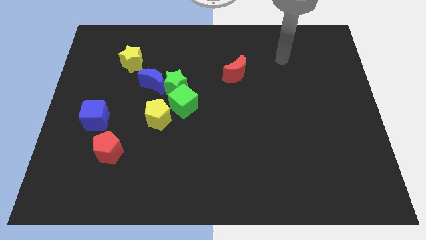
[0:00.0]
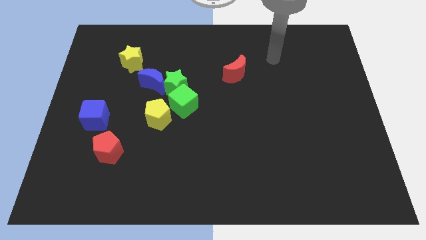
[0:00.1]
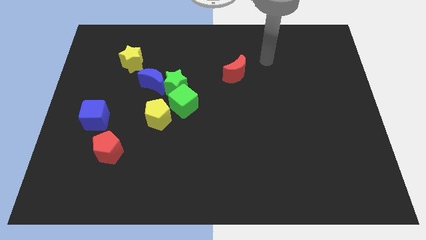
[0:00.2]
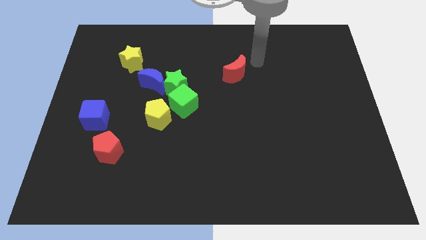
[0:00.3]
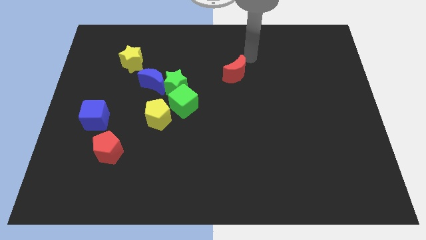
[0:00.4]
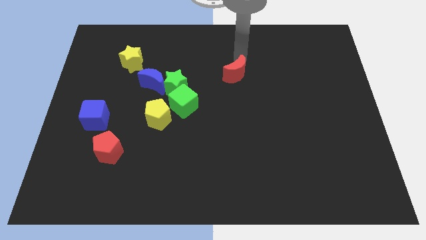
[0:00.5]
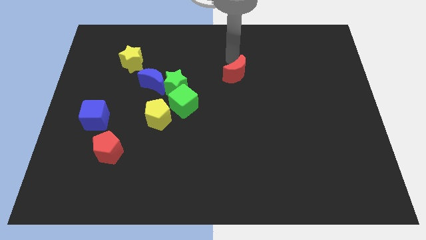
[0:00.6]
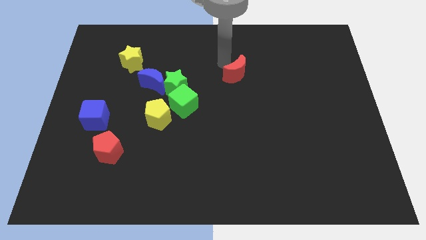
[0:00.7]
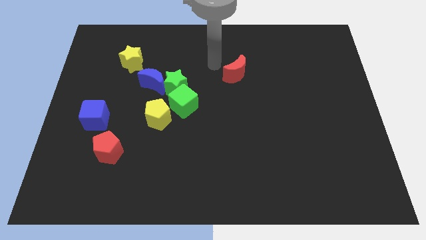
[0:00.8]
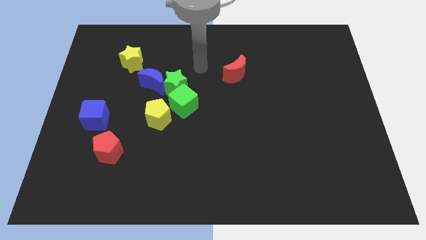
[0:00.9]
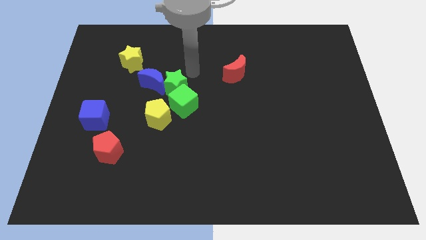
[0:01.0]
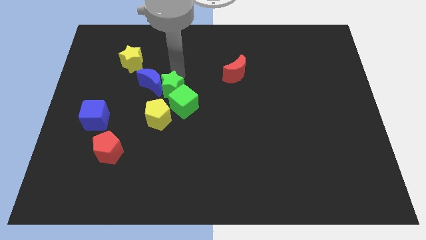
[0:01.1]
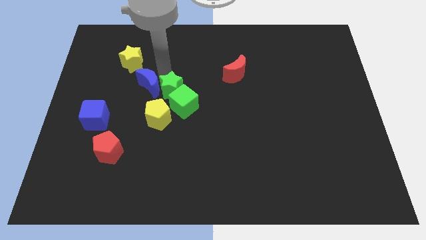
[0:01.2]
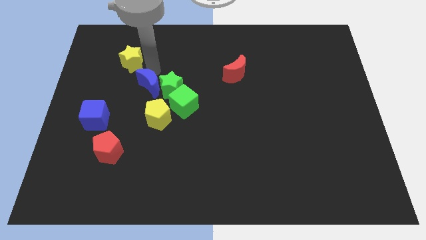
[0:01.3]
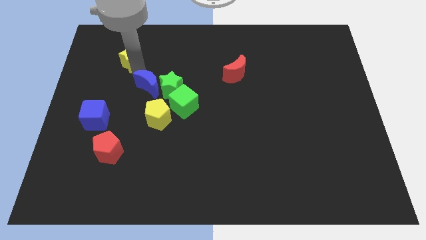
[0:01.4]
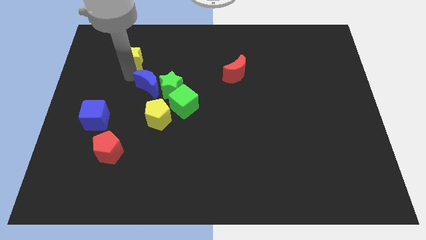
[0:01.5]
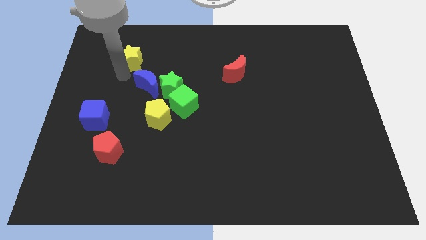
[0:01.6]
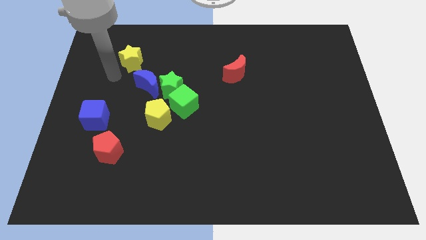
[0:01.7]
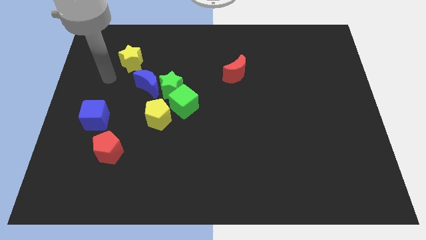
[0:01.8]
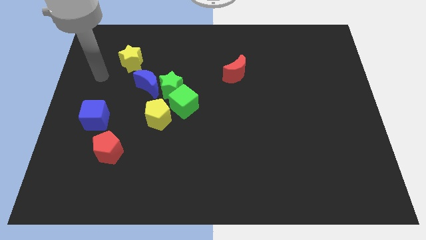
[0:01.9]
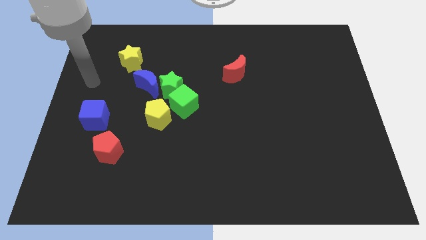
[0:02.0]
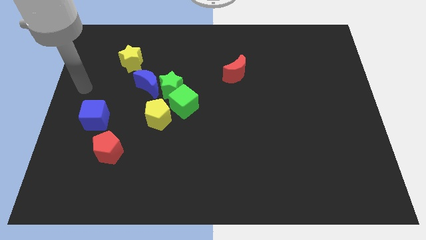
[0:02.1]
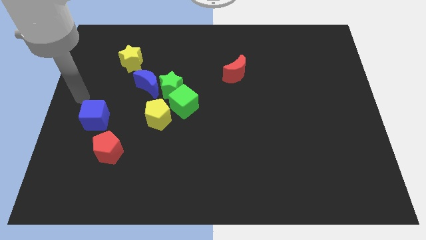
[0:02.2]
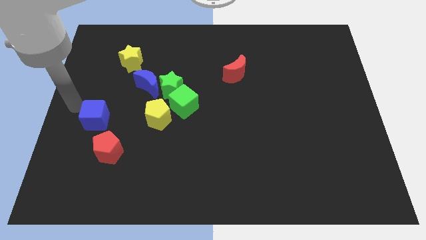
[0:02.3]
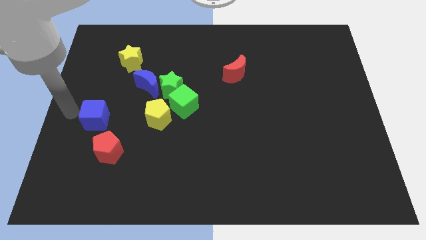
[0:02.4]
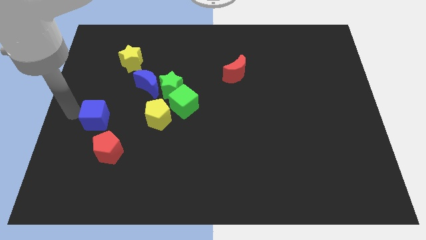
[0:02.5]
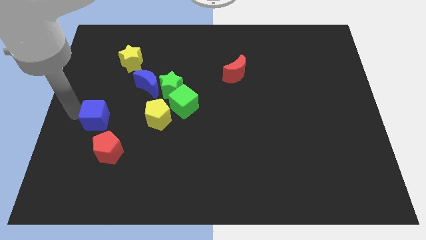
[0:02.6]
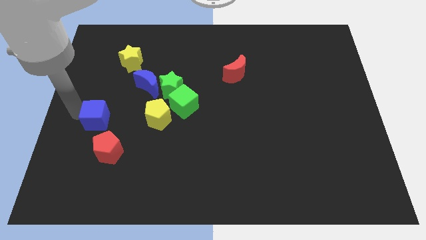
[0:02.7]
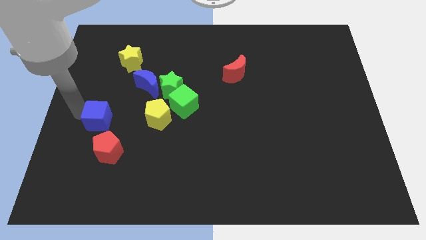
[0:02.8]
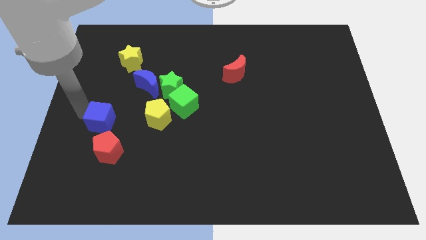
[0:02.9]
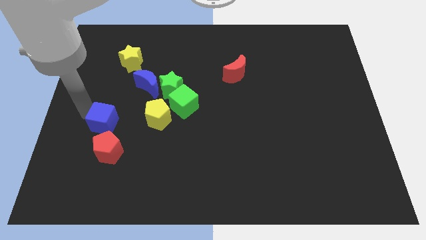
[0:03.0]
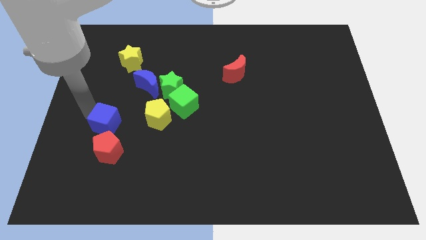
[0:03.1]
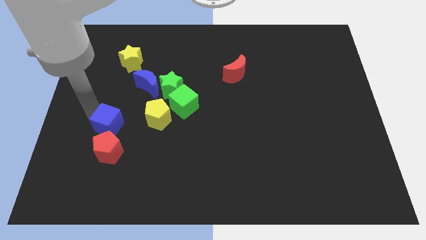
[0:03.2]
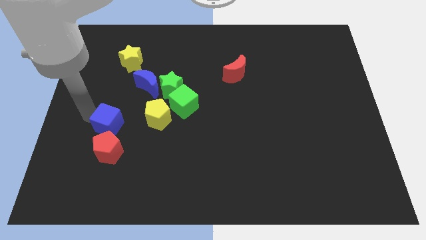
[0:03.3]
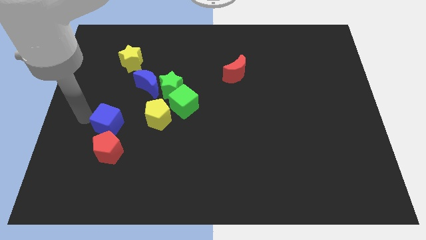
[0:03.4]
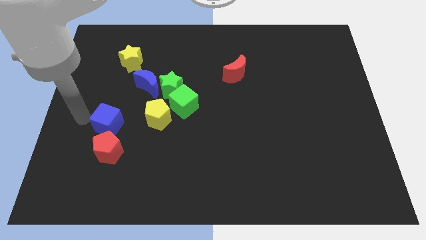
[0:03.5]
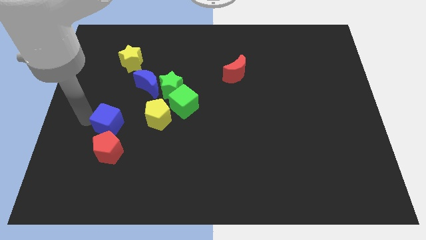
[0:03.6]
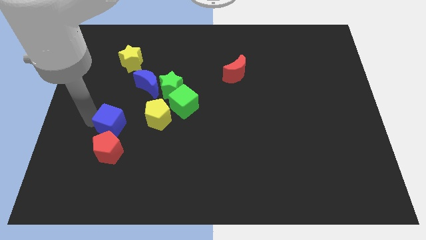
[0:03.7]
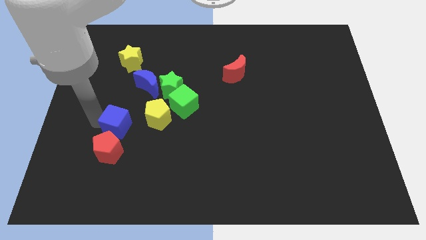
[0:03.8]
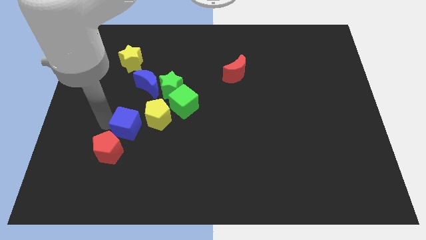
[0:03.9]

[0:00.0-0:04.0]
slide the blue cube a little bit right

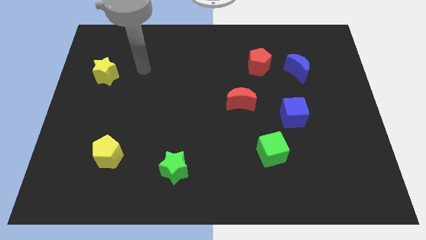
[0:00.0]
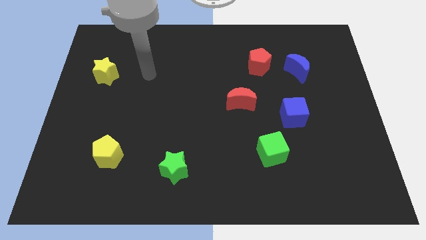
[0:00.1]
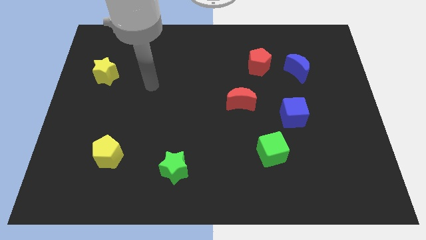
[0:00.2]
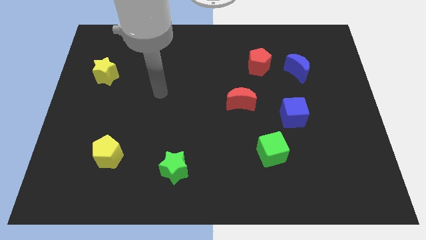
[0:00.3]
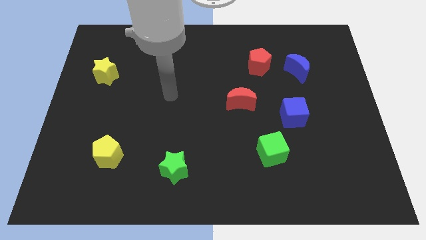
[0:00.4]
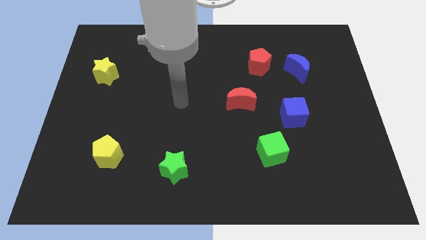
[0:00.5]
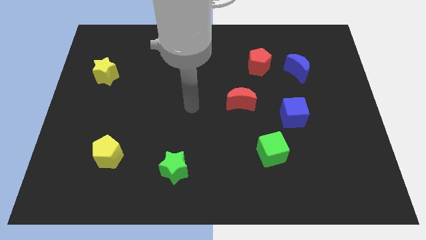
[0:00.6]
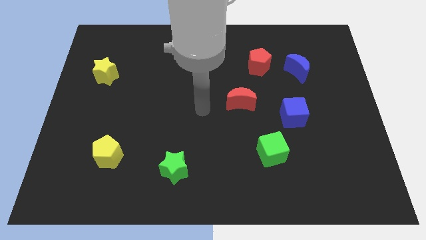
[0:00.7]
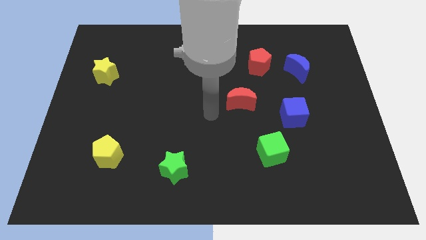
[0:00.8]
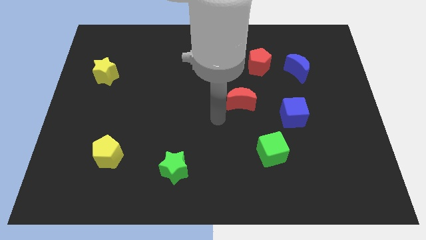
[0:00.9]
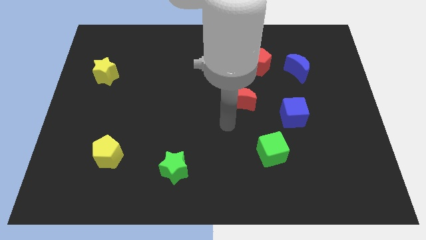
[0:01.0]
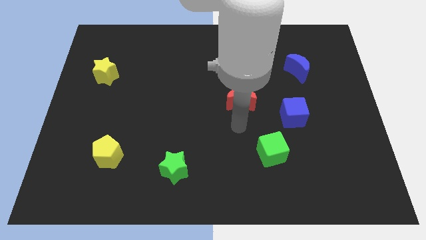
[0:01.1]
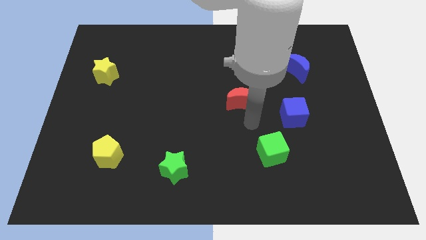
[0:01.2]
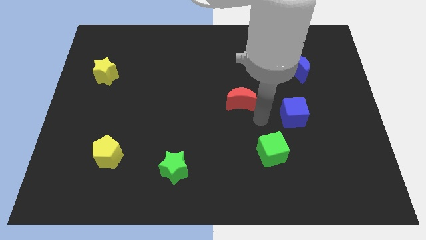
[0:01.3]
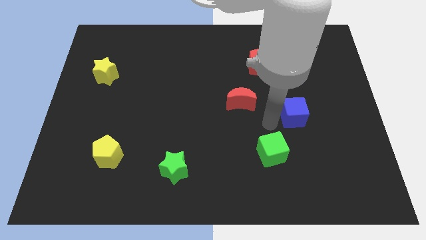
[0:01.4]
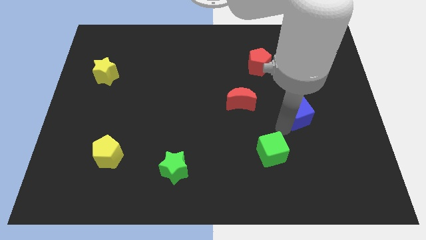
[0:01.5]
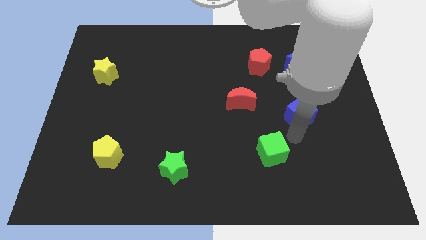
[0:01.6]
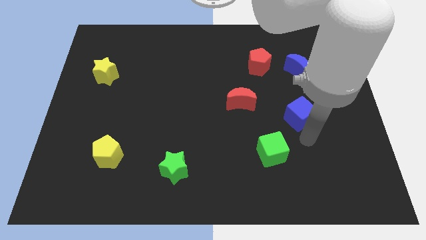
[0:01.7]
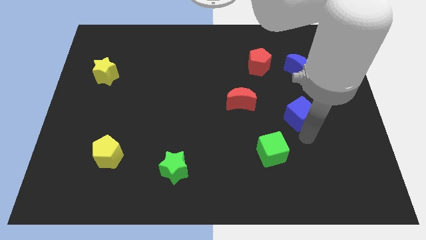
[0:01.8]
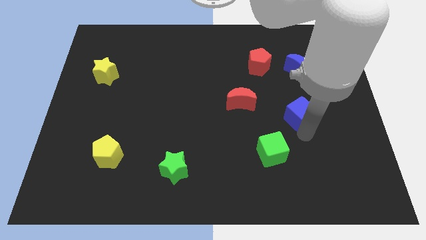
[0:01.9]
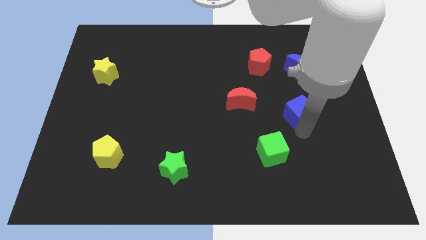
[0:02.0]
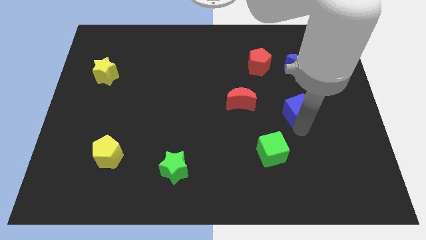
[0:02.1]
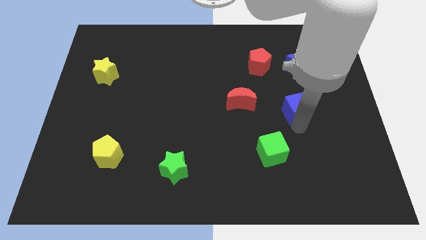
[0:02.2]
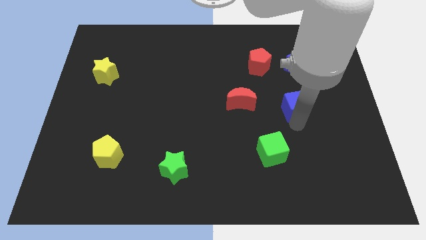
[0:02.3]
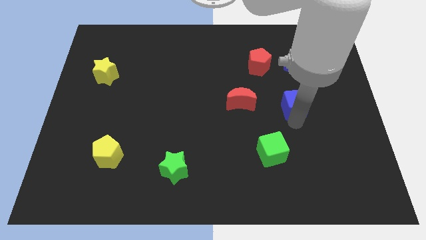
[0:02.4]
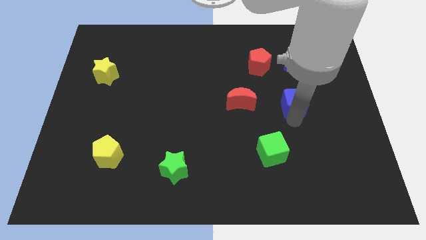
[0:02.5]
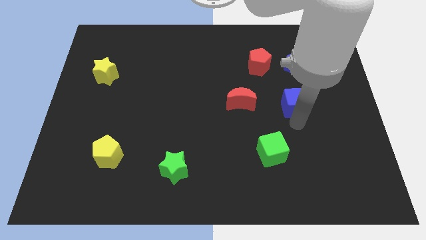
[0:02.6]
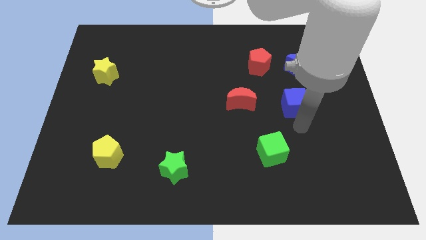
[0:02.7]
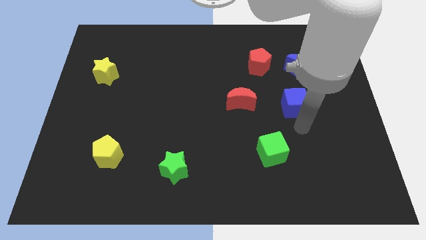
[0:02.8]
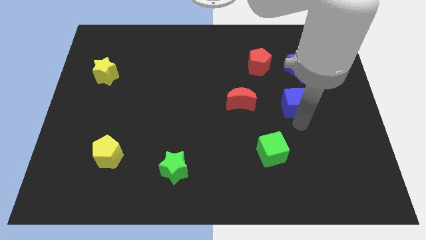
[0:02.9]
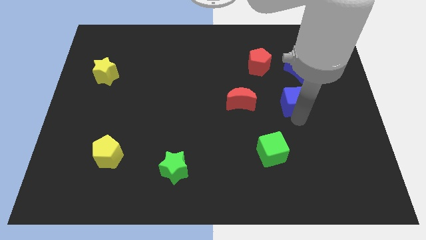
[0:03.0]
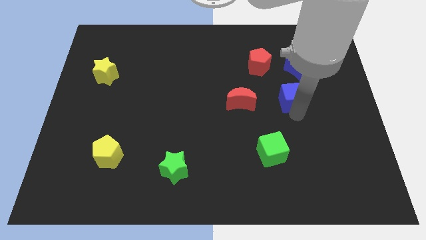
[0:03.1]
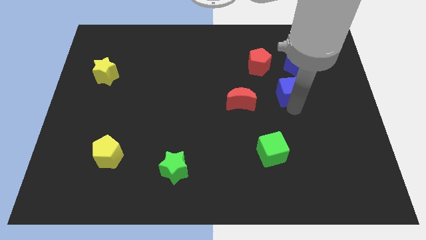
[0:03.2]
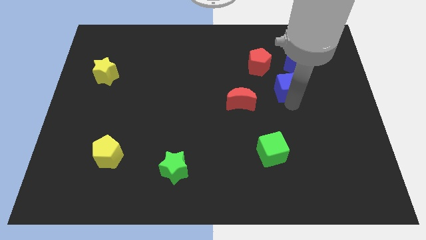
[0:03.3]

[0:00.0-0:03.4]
push the blue cube slightly up

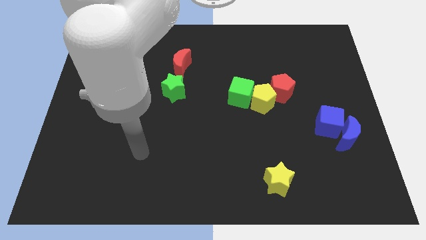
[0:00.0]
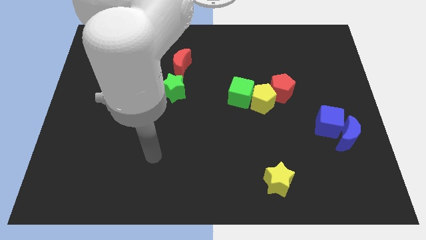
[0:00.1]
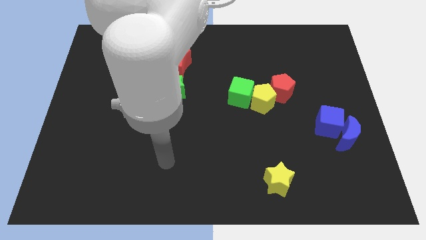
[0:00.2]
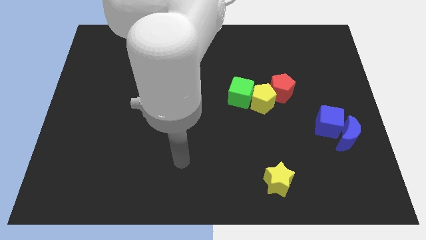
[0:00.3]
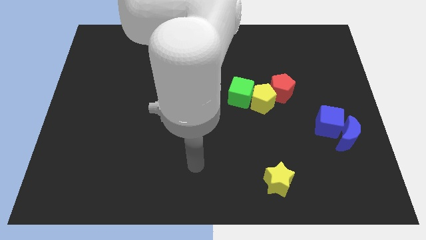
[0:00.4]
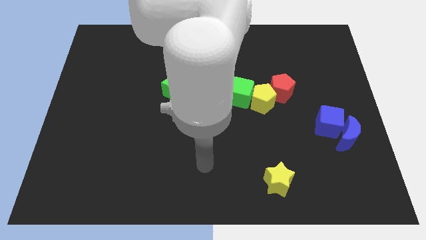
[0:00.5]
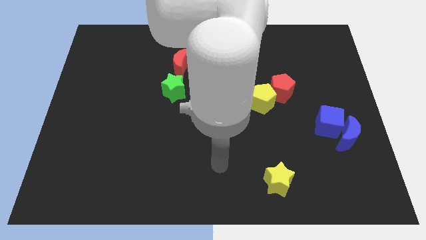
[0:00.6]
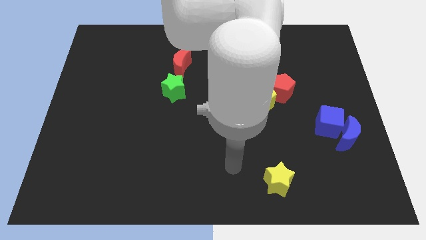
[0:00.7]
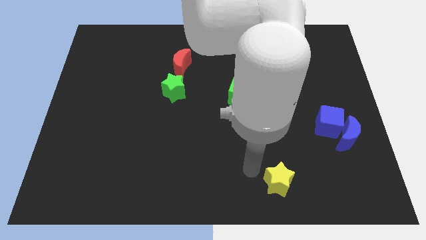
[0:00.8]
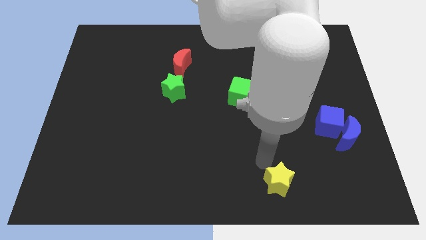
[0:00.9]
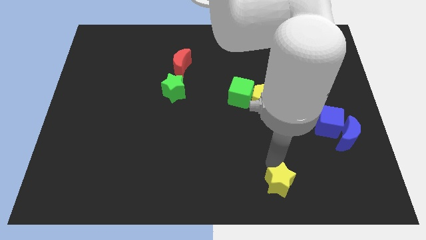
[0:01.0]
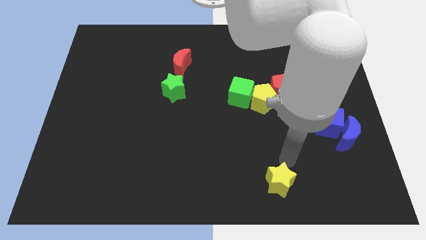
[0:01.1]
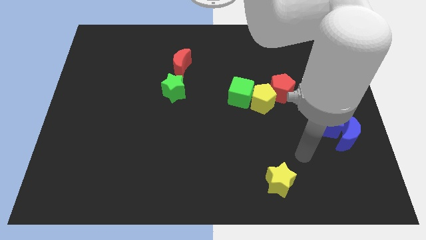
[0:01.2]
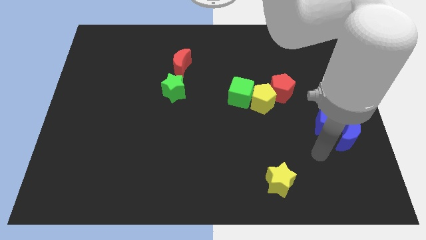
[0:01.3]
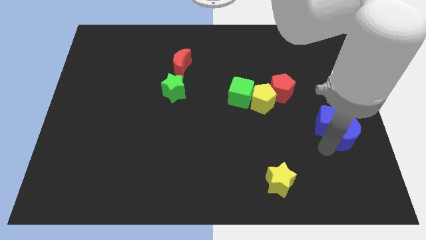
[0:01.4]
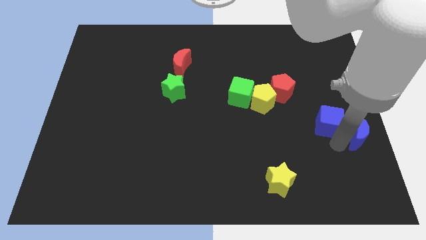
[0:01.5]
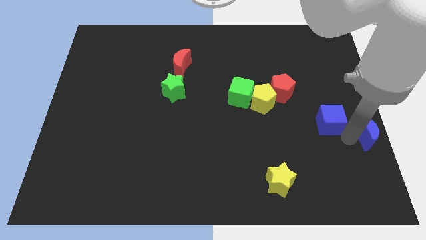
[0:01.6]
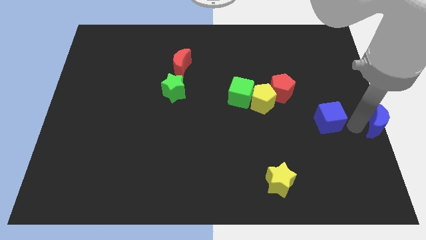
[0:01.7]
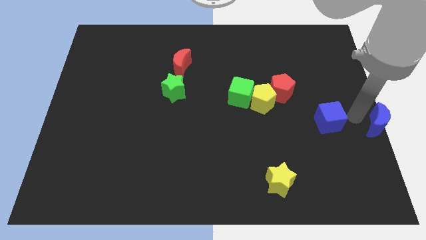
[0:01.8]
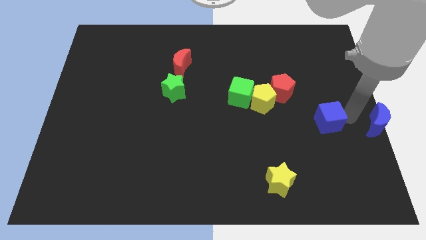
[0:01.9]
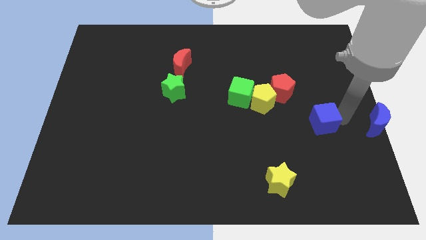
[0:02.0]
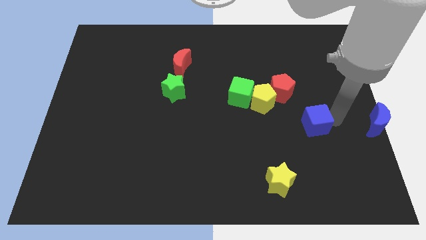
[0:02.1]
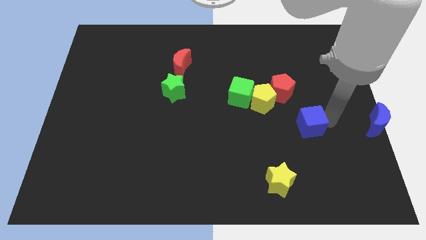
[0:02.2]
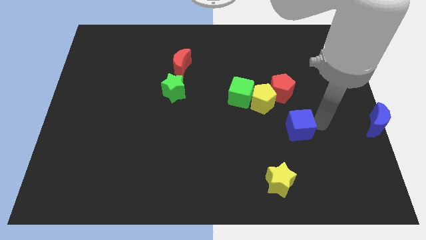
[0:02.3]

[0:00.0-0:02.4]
slide the blue cube to the left a bit
